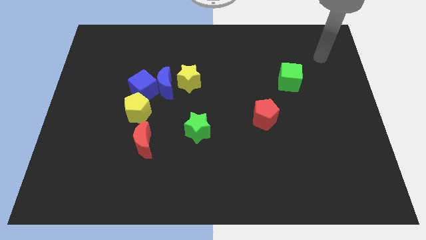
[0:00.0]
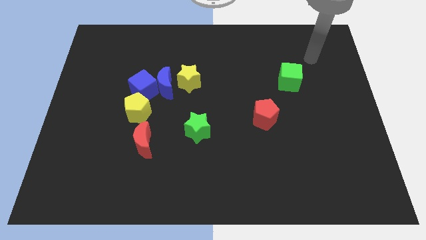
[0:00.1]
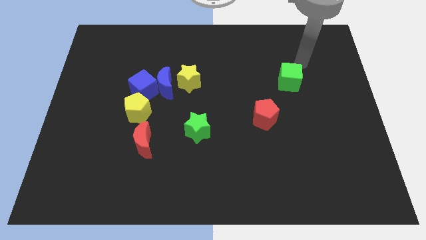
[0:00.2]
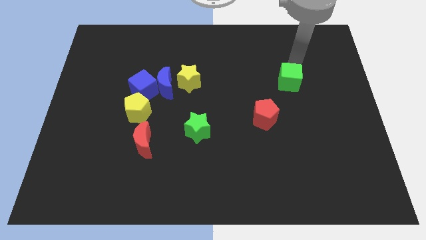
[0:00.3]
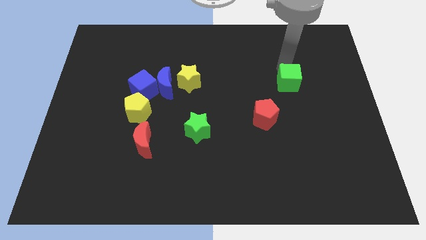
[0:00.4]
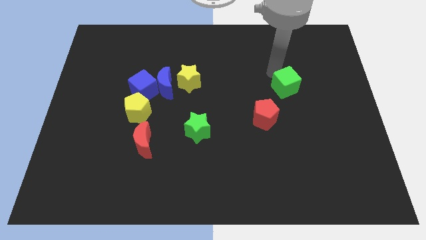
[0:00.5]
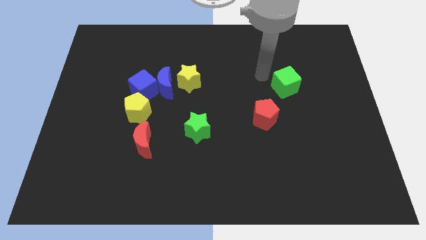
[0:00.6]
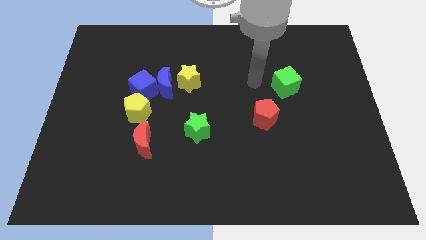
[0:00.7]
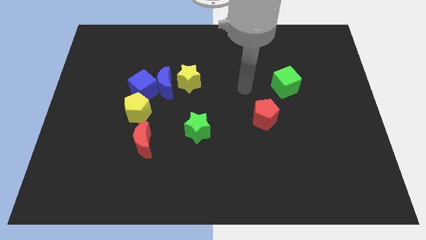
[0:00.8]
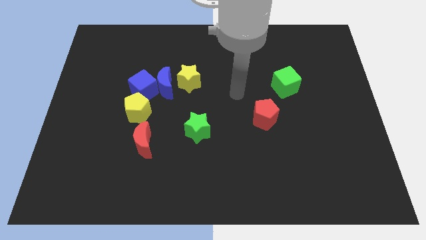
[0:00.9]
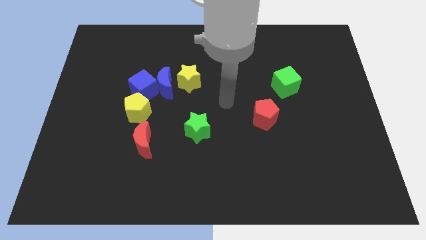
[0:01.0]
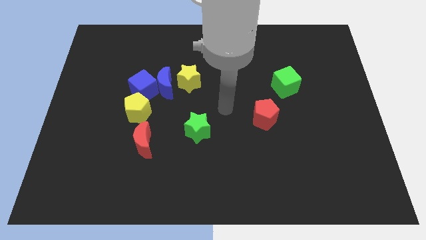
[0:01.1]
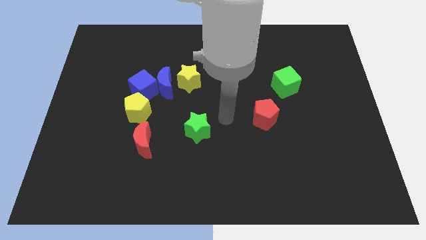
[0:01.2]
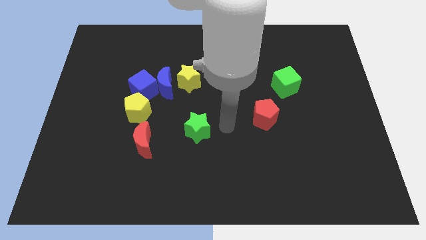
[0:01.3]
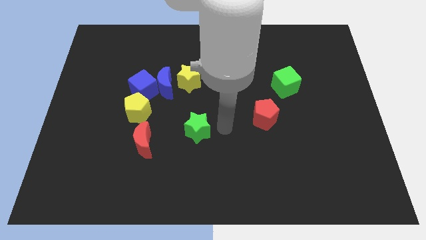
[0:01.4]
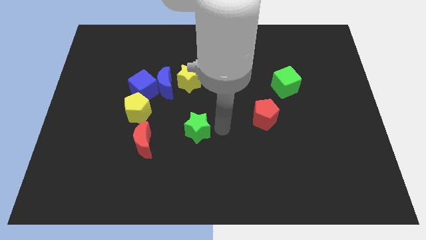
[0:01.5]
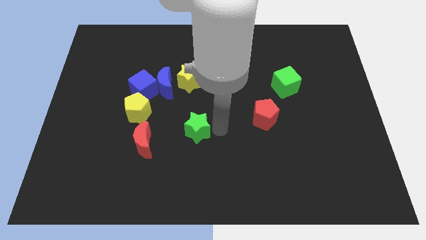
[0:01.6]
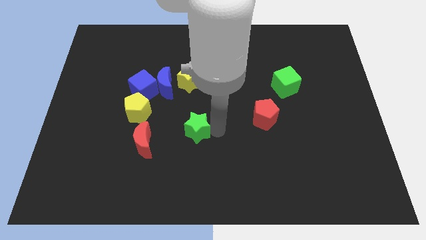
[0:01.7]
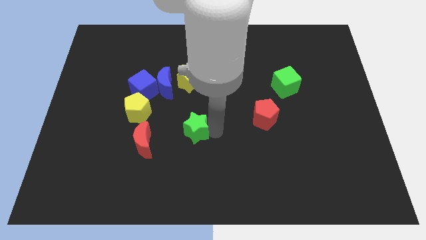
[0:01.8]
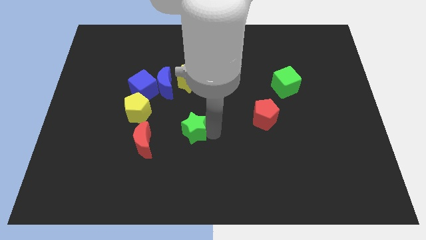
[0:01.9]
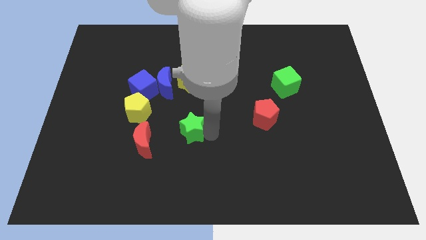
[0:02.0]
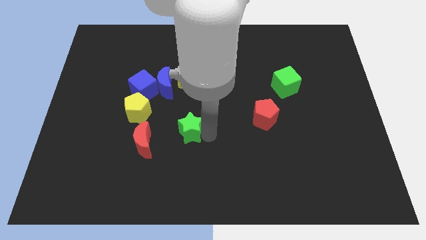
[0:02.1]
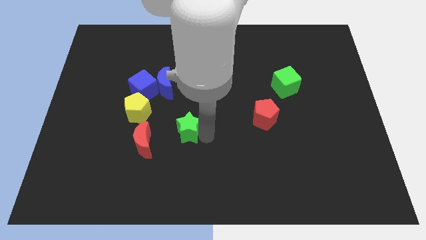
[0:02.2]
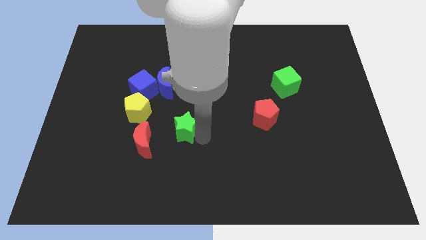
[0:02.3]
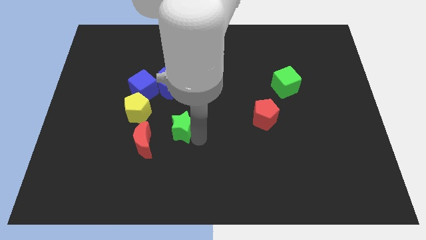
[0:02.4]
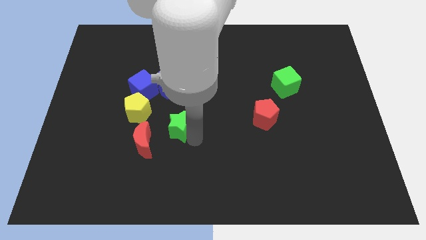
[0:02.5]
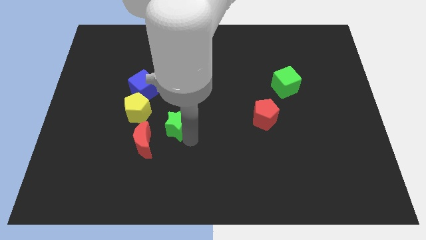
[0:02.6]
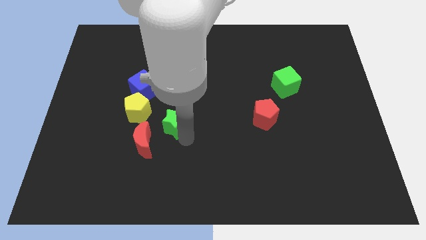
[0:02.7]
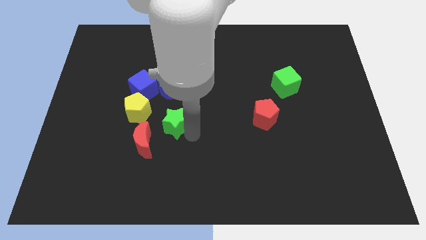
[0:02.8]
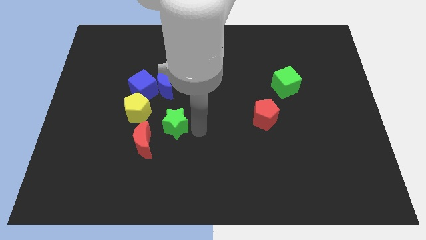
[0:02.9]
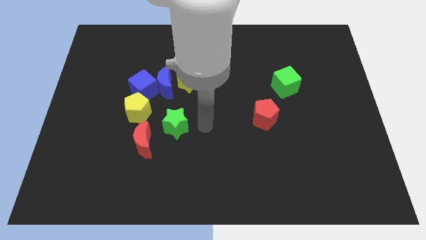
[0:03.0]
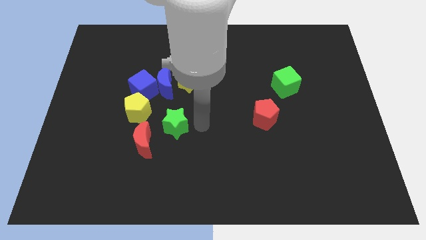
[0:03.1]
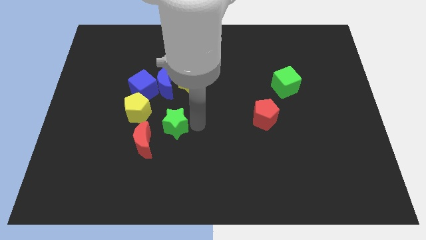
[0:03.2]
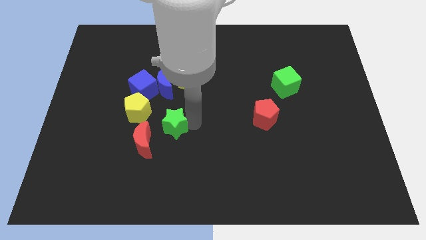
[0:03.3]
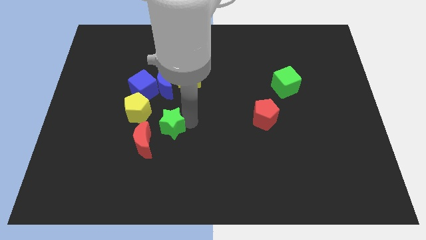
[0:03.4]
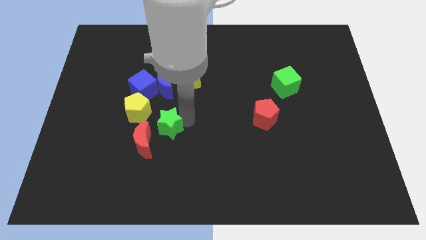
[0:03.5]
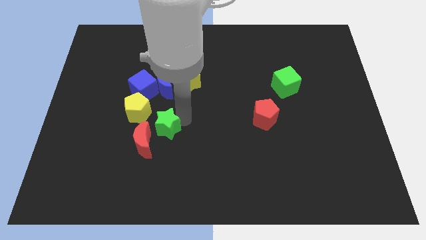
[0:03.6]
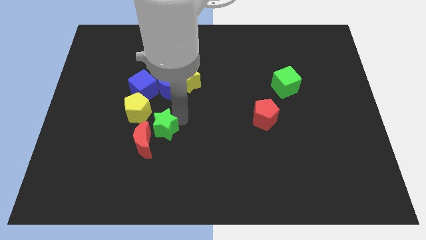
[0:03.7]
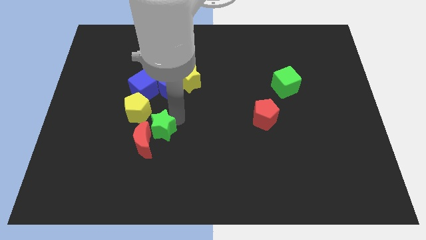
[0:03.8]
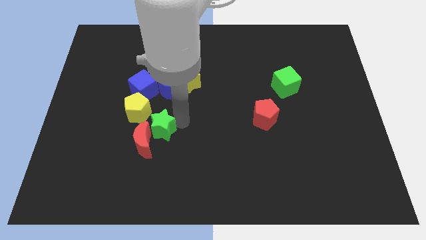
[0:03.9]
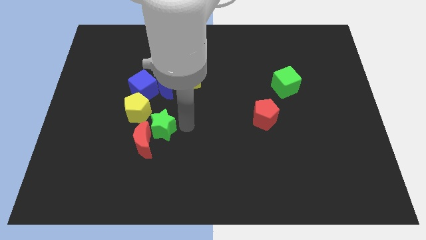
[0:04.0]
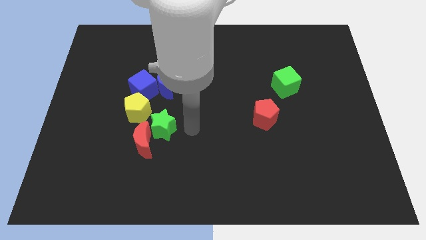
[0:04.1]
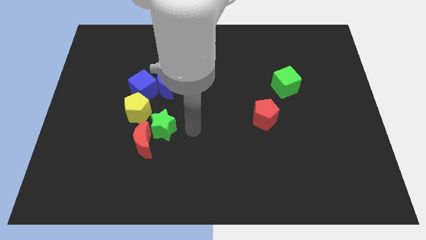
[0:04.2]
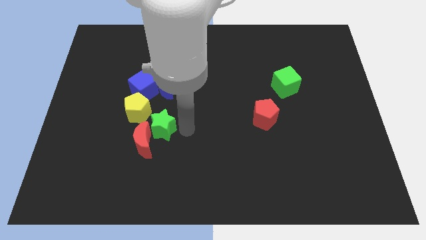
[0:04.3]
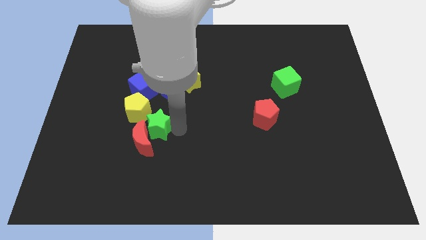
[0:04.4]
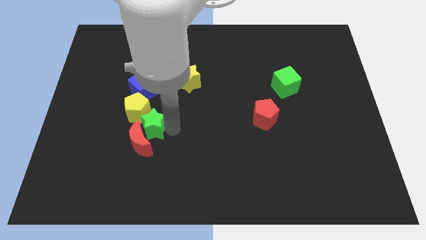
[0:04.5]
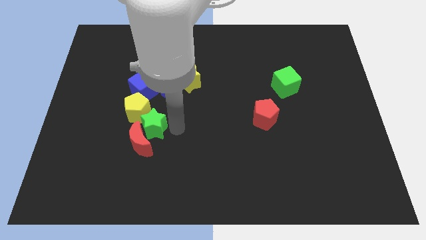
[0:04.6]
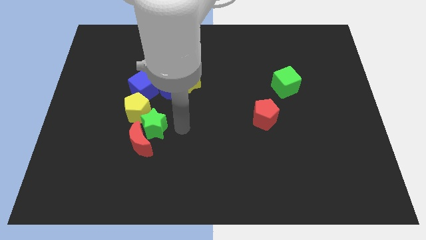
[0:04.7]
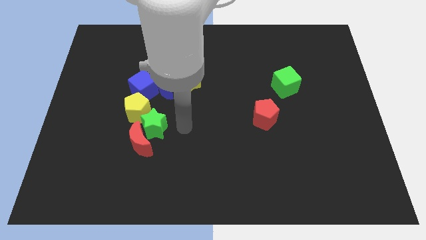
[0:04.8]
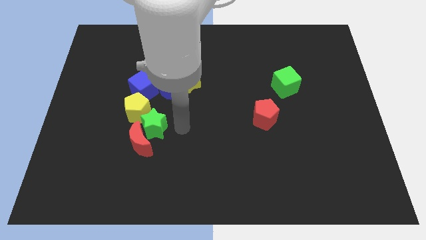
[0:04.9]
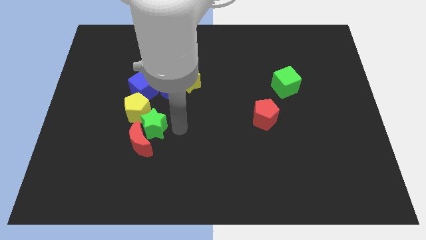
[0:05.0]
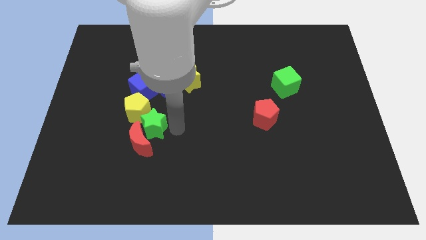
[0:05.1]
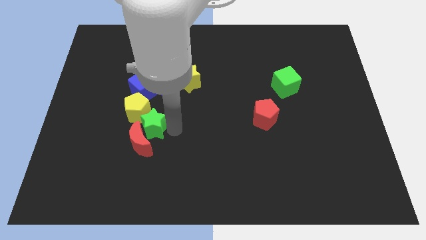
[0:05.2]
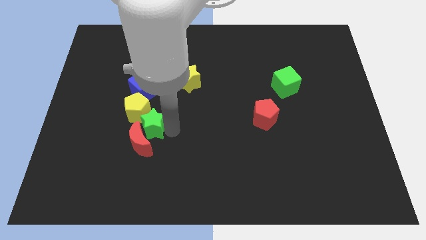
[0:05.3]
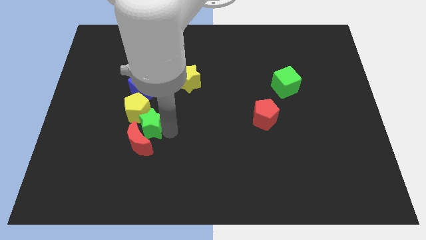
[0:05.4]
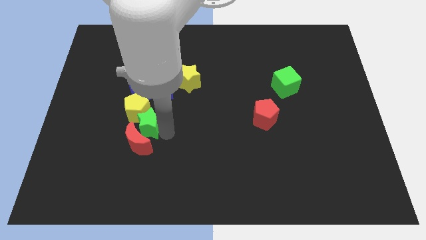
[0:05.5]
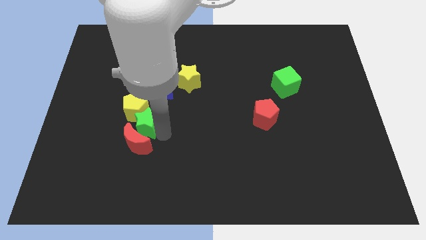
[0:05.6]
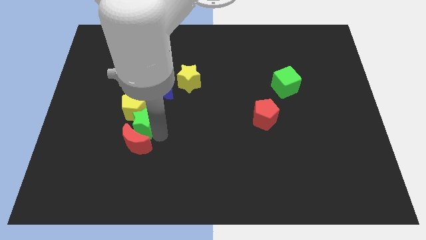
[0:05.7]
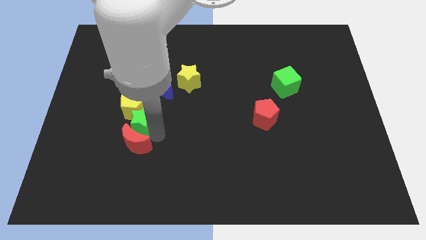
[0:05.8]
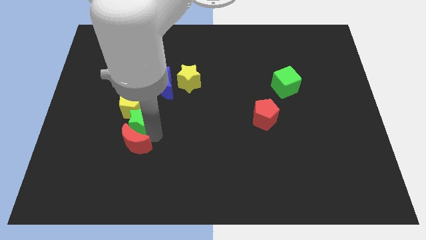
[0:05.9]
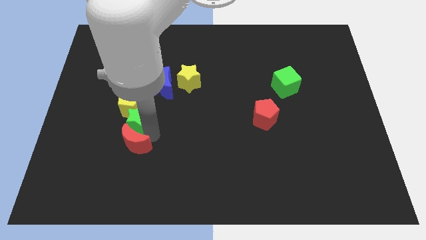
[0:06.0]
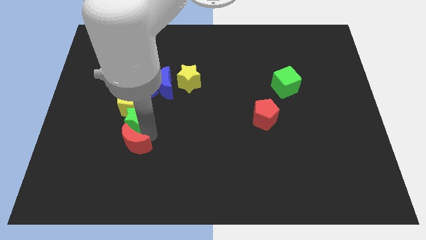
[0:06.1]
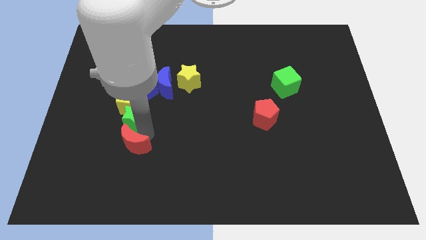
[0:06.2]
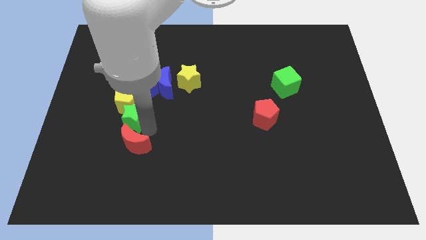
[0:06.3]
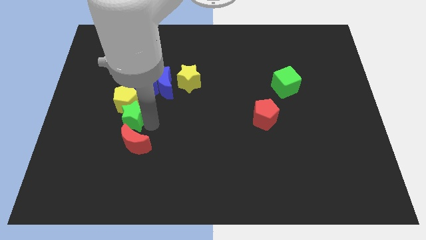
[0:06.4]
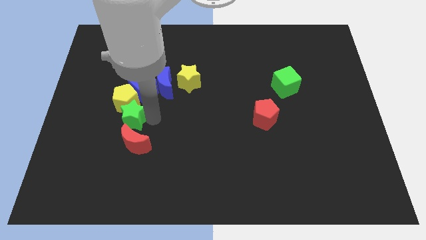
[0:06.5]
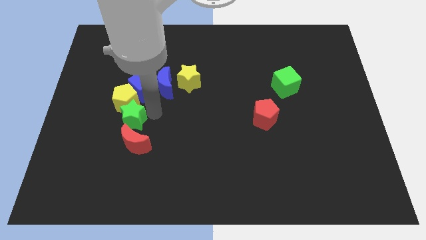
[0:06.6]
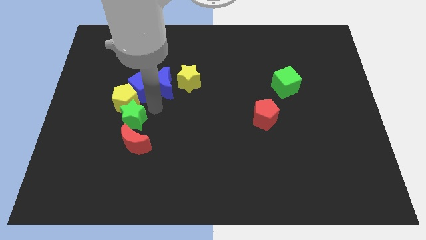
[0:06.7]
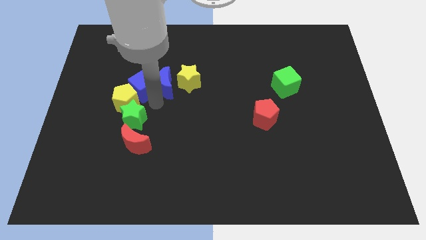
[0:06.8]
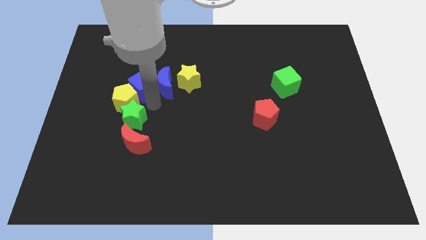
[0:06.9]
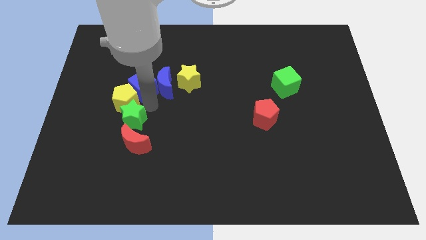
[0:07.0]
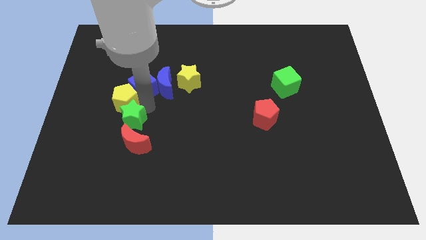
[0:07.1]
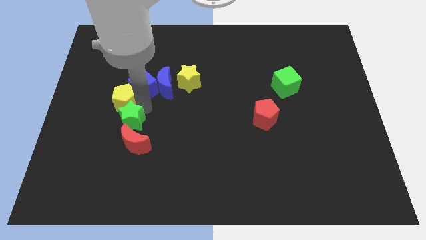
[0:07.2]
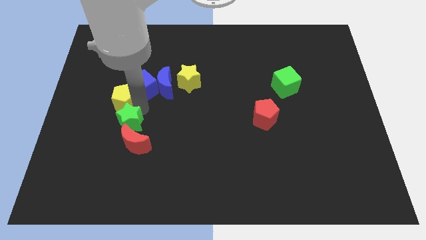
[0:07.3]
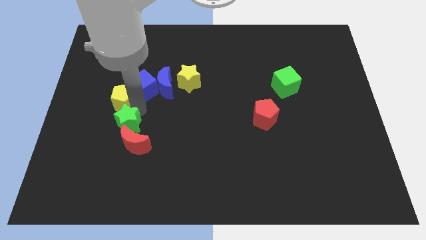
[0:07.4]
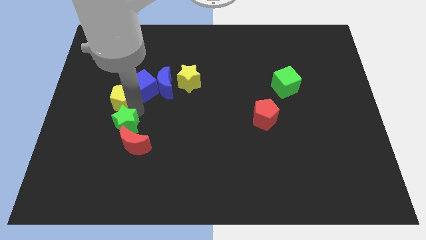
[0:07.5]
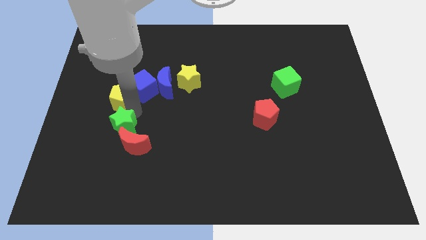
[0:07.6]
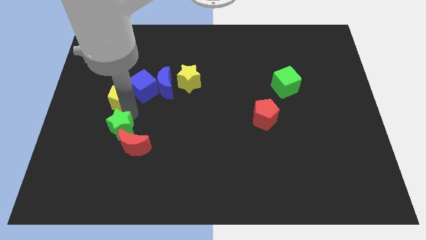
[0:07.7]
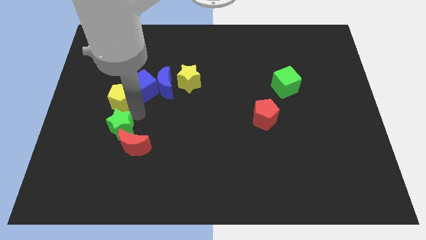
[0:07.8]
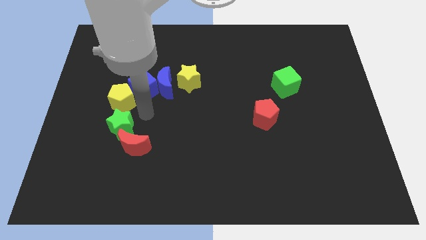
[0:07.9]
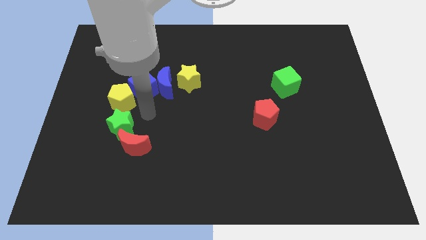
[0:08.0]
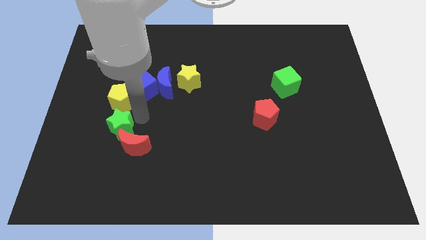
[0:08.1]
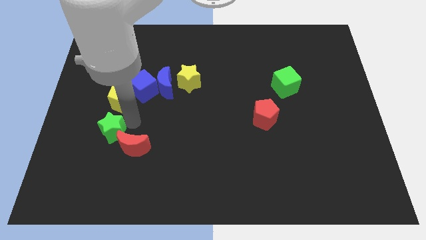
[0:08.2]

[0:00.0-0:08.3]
put the green star to the left side of the red moon
